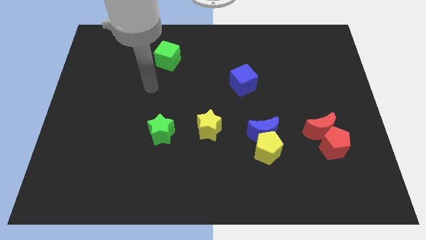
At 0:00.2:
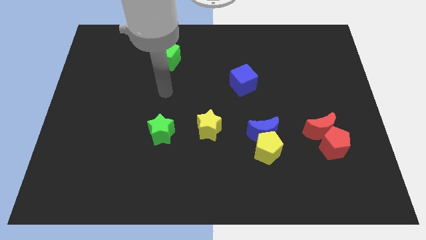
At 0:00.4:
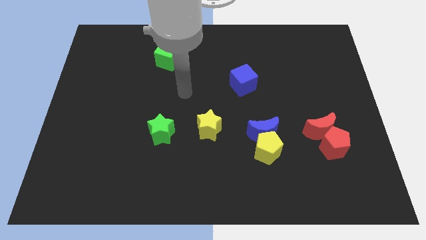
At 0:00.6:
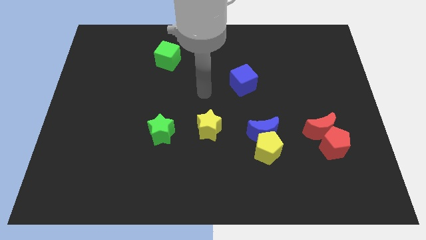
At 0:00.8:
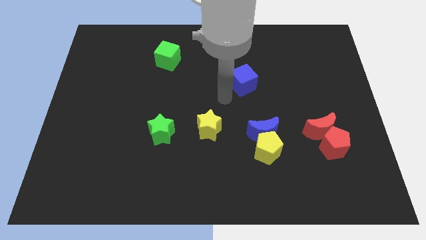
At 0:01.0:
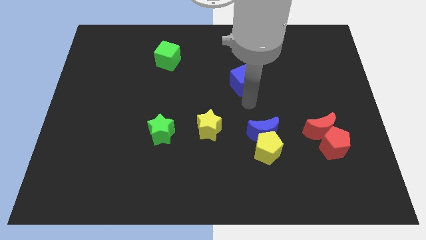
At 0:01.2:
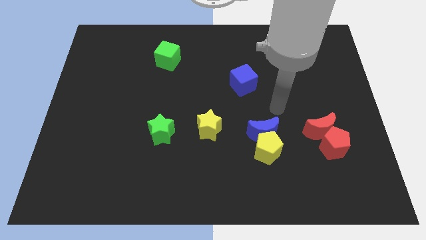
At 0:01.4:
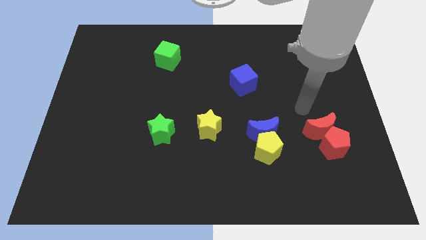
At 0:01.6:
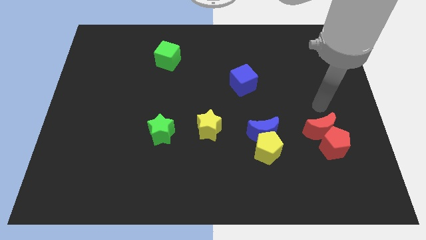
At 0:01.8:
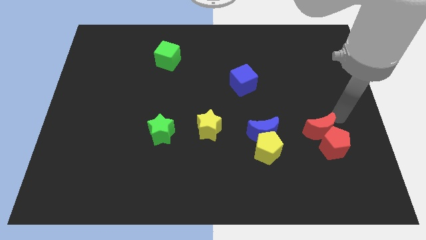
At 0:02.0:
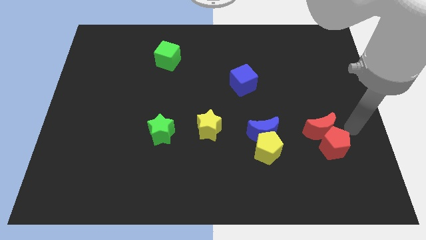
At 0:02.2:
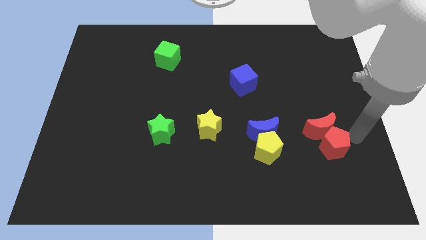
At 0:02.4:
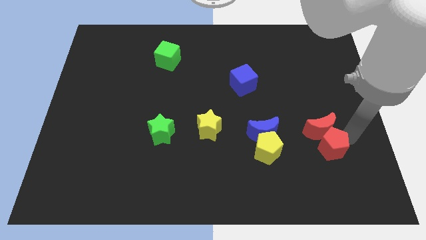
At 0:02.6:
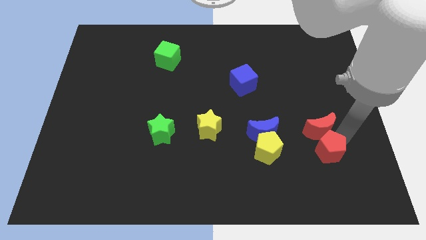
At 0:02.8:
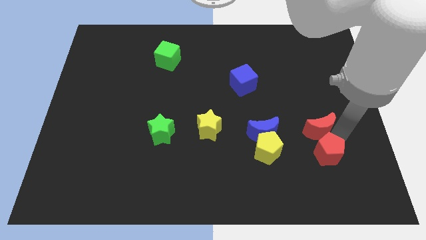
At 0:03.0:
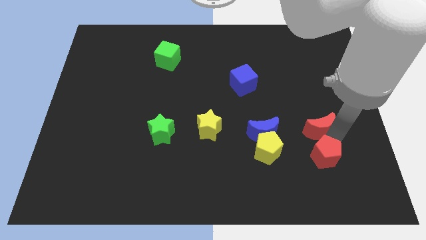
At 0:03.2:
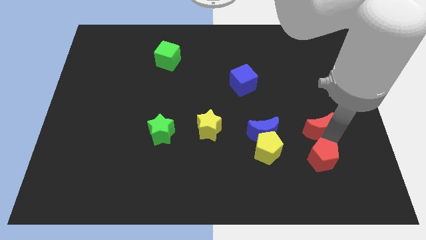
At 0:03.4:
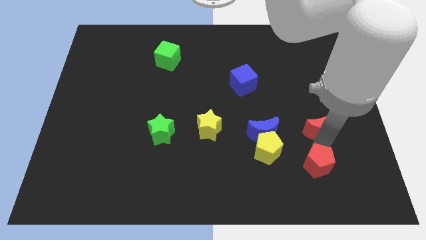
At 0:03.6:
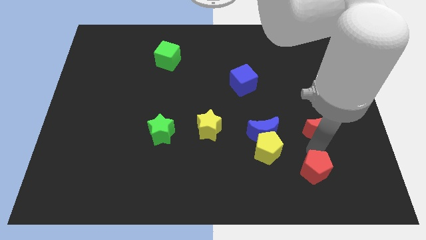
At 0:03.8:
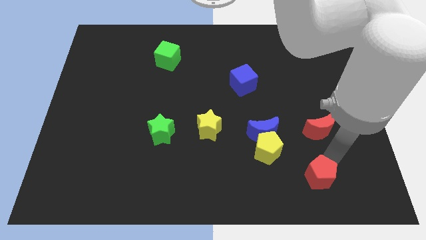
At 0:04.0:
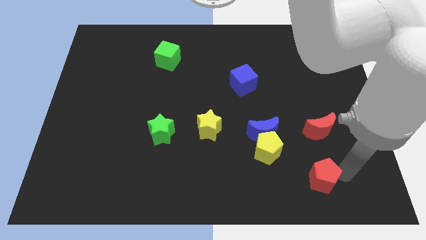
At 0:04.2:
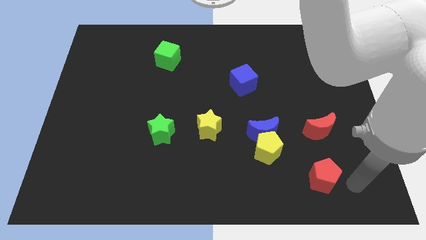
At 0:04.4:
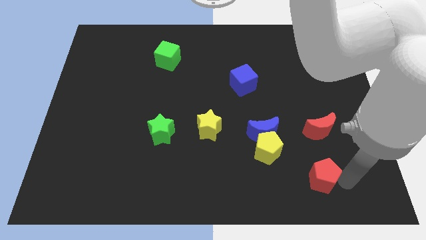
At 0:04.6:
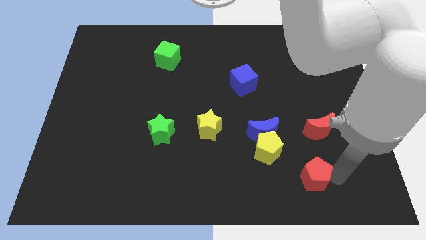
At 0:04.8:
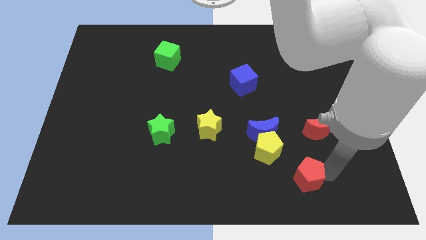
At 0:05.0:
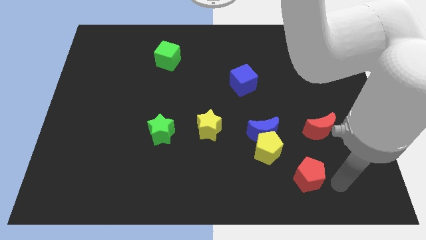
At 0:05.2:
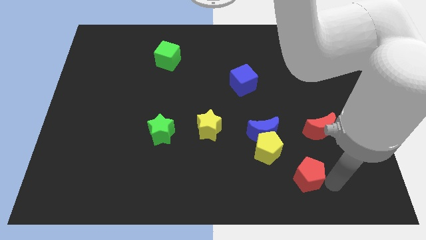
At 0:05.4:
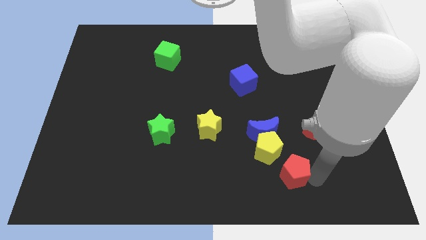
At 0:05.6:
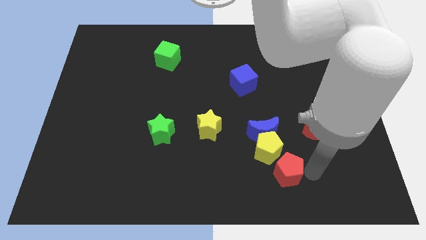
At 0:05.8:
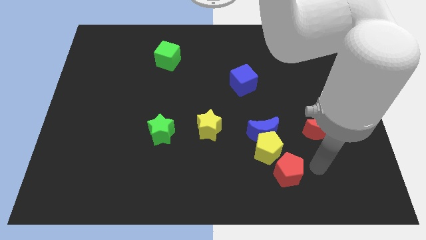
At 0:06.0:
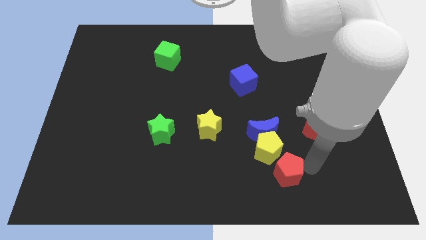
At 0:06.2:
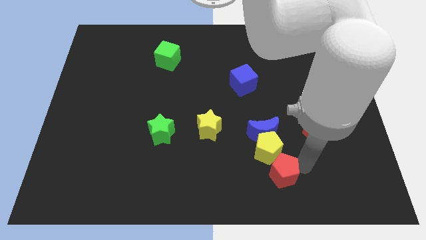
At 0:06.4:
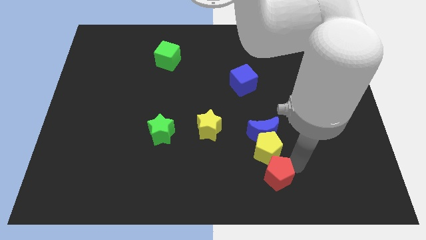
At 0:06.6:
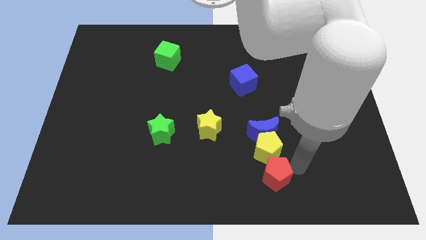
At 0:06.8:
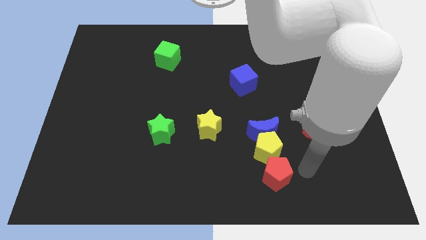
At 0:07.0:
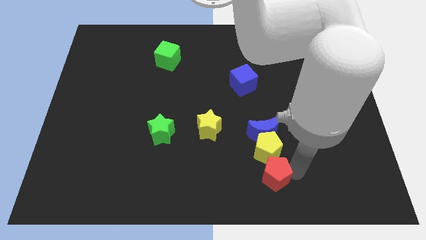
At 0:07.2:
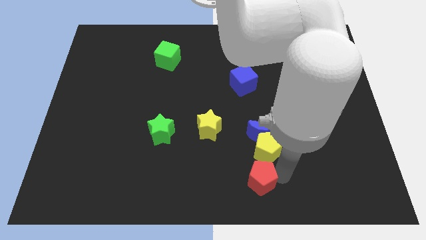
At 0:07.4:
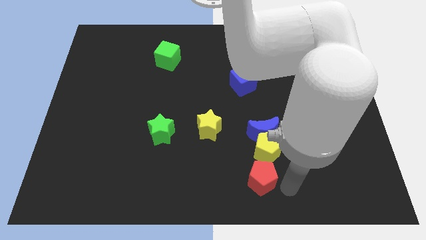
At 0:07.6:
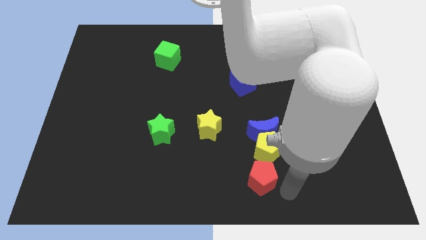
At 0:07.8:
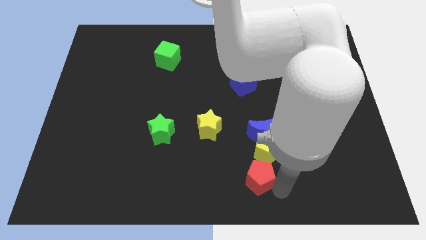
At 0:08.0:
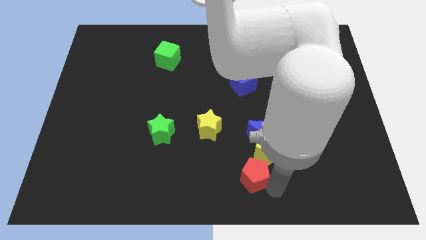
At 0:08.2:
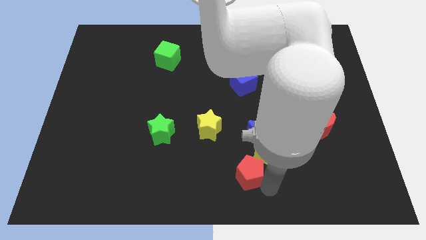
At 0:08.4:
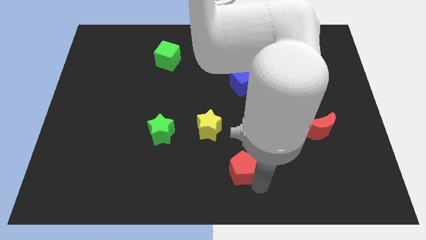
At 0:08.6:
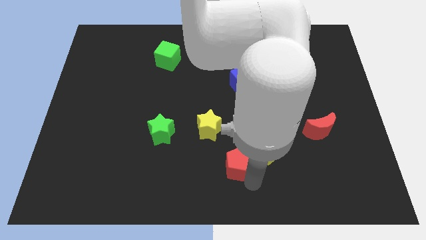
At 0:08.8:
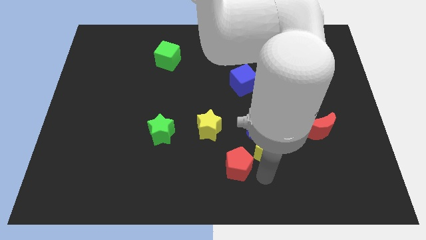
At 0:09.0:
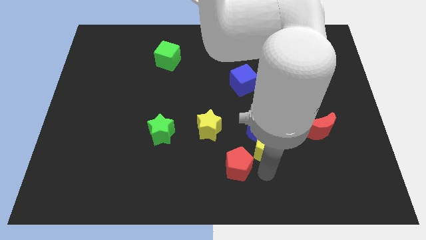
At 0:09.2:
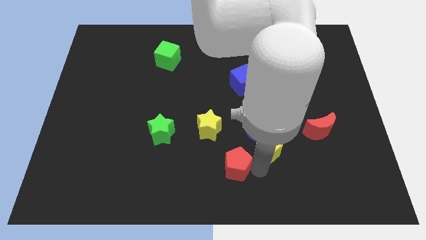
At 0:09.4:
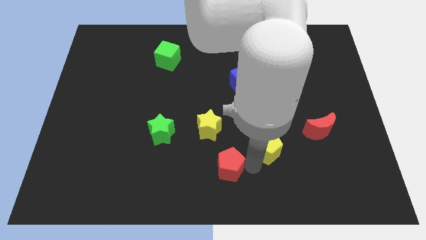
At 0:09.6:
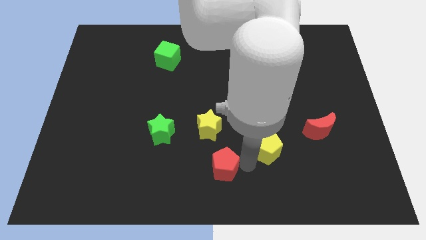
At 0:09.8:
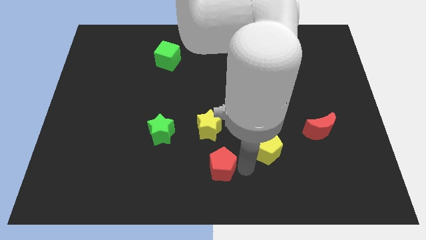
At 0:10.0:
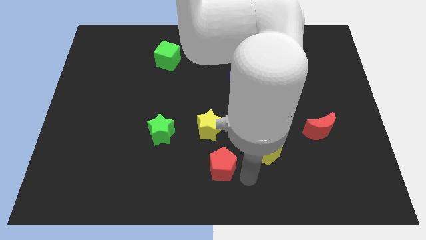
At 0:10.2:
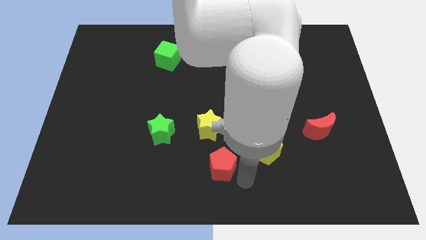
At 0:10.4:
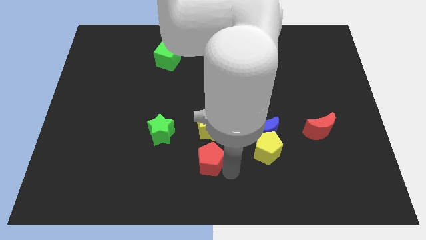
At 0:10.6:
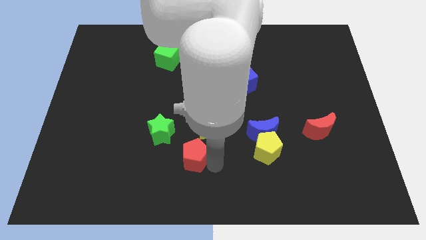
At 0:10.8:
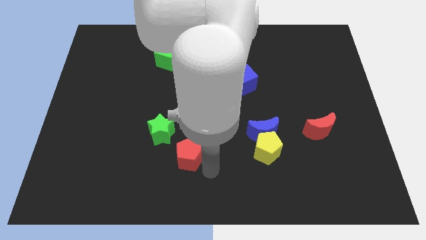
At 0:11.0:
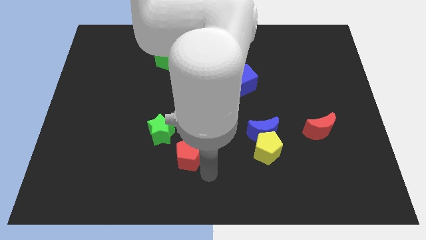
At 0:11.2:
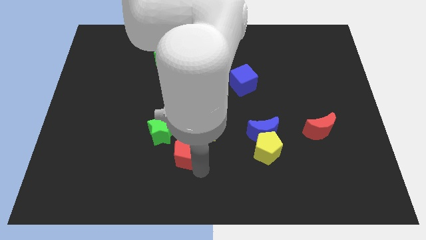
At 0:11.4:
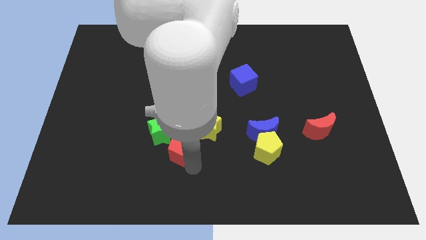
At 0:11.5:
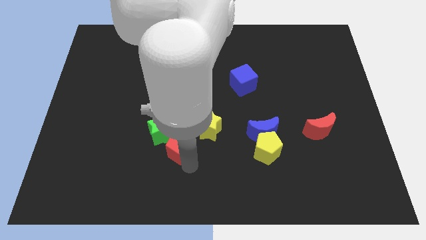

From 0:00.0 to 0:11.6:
put the red pentagon next to the green star

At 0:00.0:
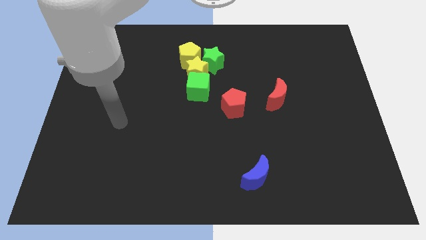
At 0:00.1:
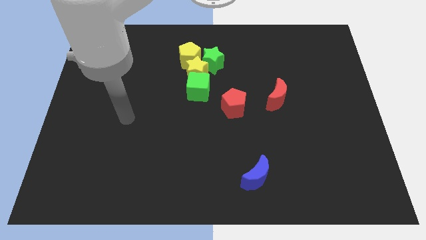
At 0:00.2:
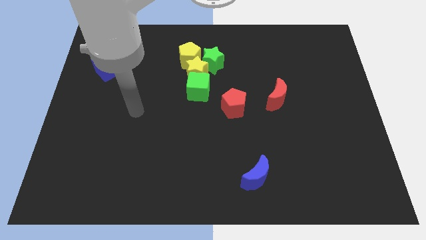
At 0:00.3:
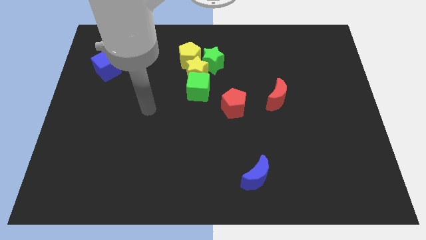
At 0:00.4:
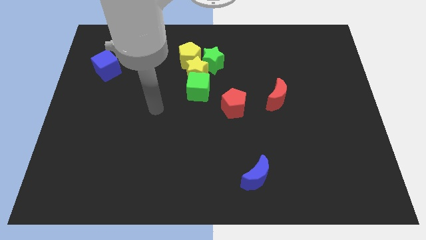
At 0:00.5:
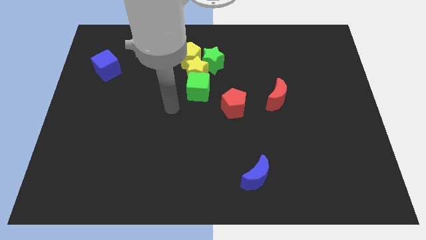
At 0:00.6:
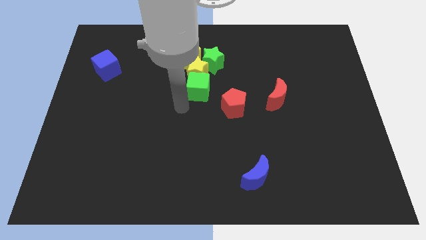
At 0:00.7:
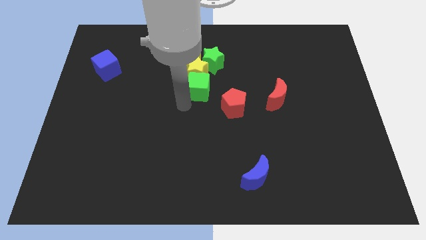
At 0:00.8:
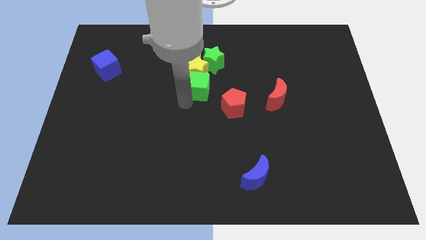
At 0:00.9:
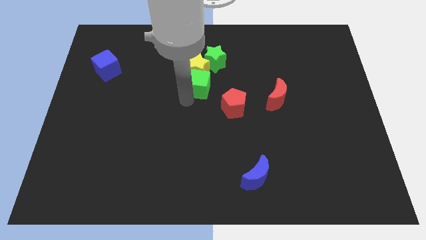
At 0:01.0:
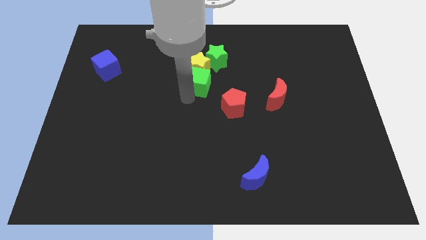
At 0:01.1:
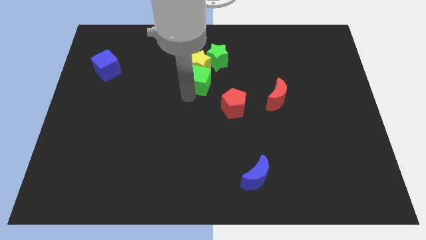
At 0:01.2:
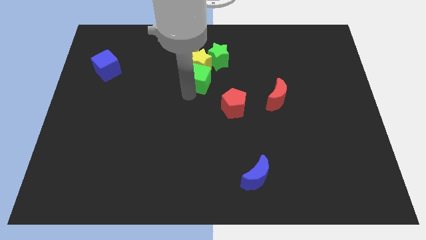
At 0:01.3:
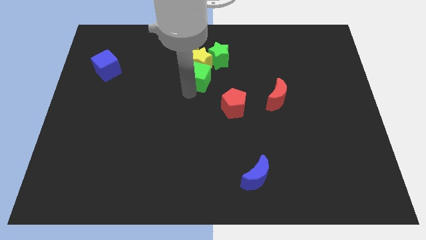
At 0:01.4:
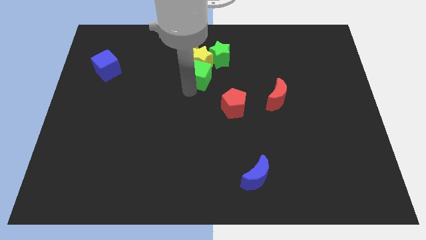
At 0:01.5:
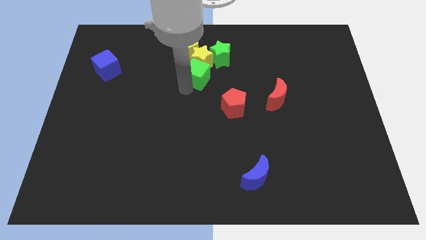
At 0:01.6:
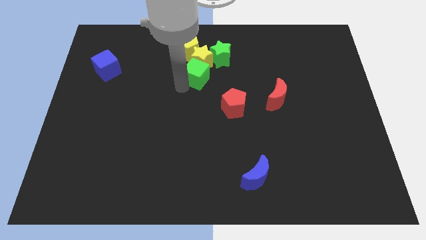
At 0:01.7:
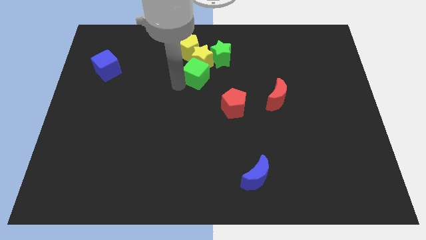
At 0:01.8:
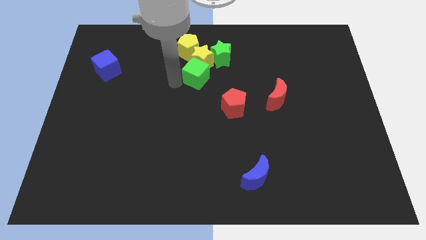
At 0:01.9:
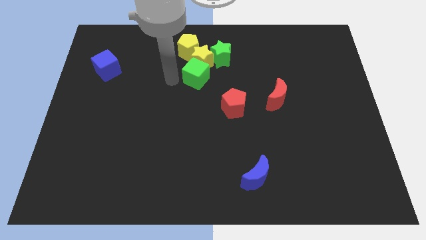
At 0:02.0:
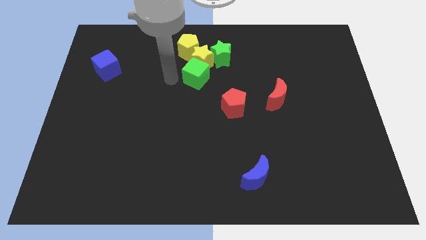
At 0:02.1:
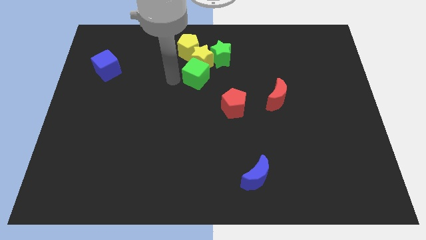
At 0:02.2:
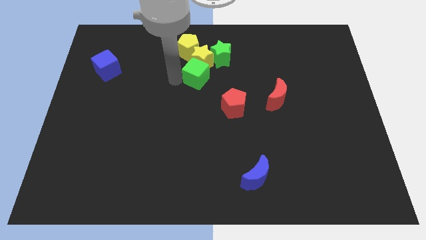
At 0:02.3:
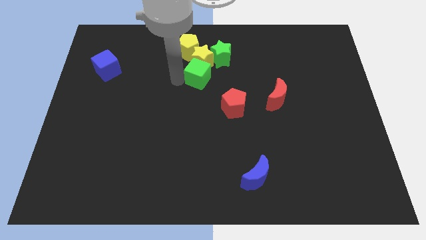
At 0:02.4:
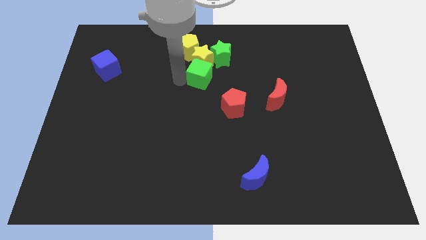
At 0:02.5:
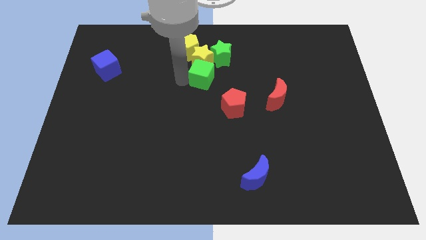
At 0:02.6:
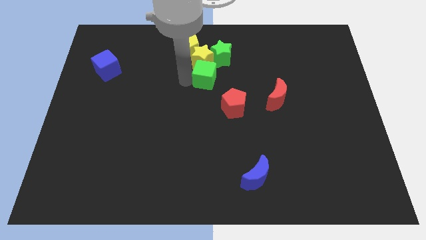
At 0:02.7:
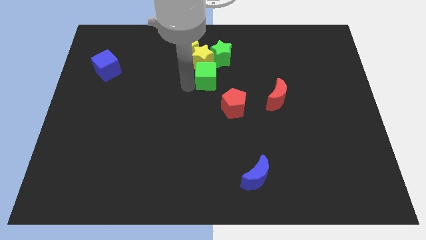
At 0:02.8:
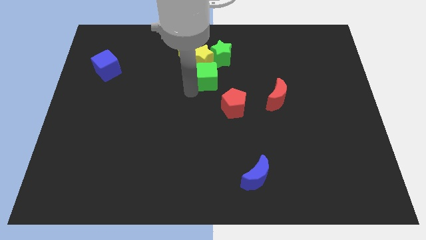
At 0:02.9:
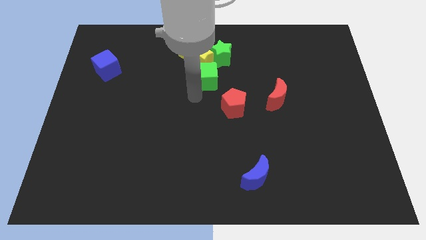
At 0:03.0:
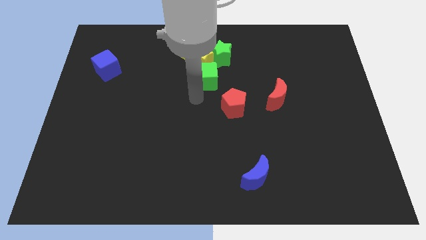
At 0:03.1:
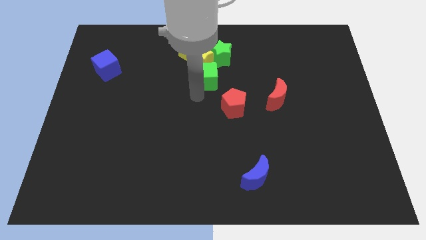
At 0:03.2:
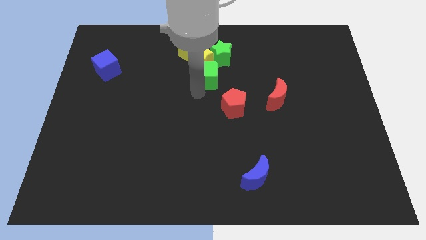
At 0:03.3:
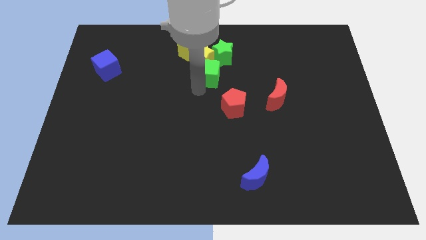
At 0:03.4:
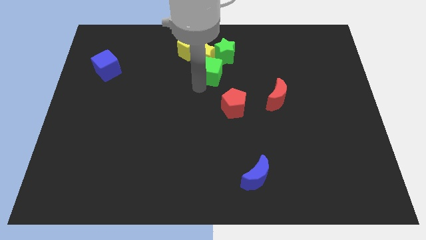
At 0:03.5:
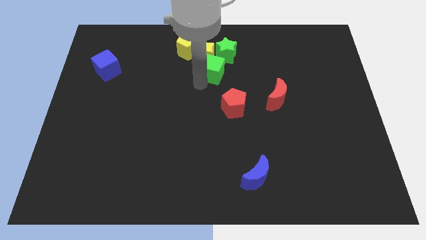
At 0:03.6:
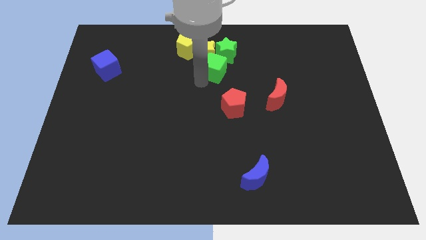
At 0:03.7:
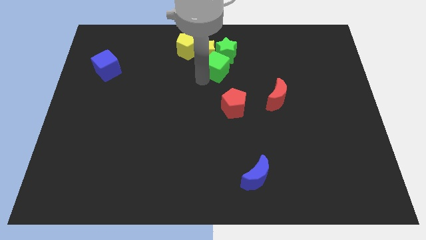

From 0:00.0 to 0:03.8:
put the green cube to the green star
